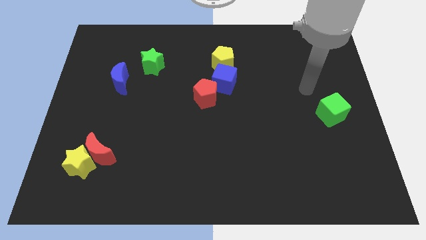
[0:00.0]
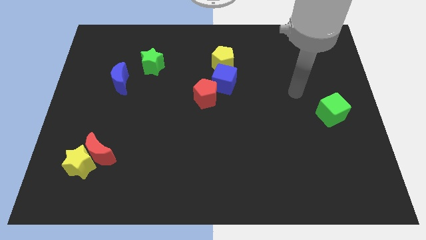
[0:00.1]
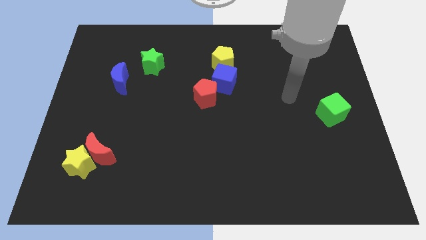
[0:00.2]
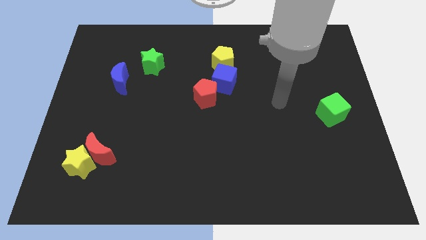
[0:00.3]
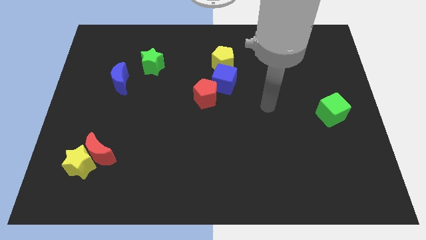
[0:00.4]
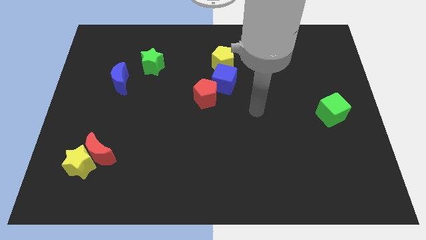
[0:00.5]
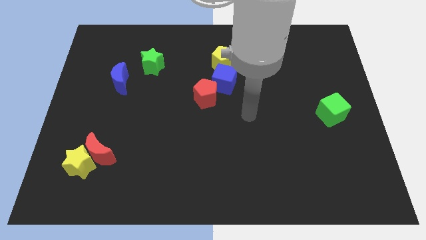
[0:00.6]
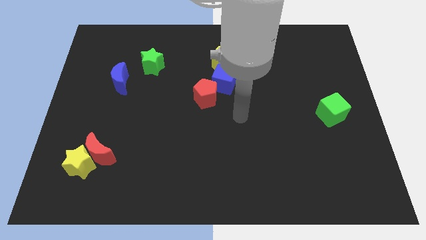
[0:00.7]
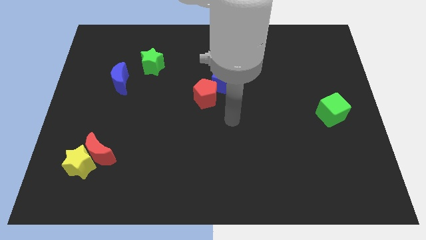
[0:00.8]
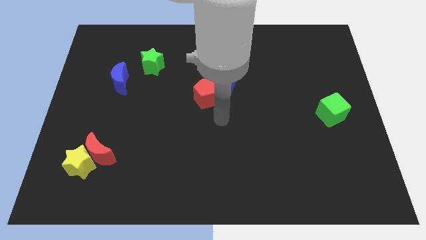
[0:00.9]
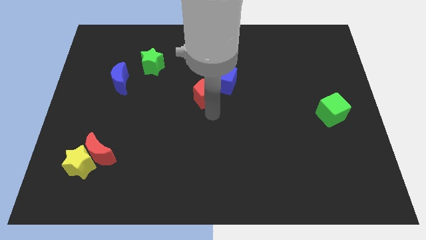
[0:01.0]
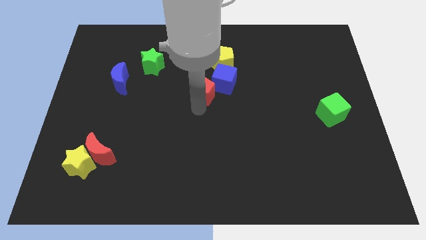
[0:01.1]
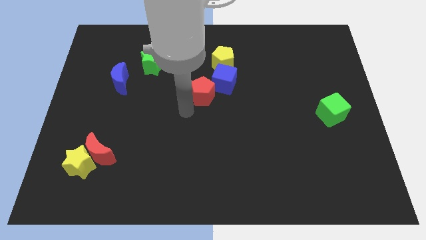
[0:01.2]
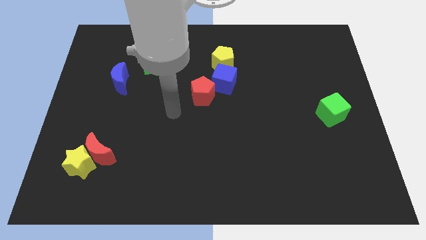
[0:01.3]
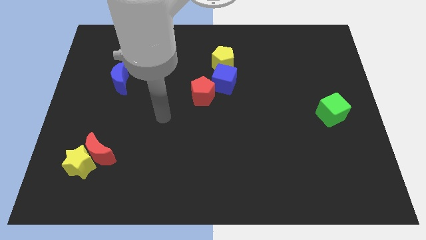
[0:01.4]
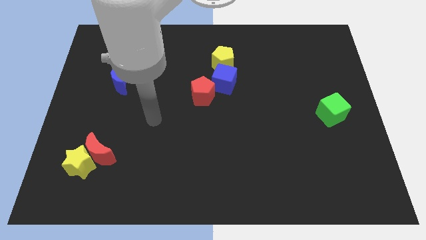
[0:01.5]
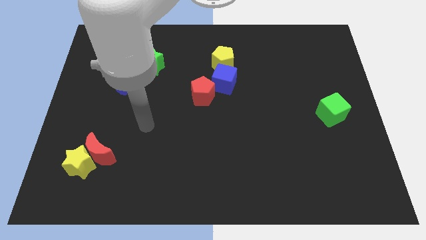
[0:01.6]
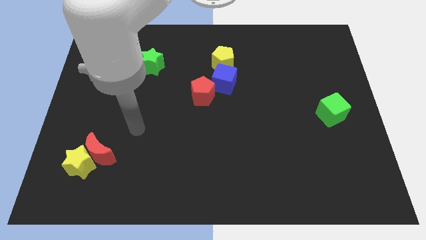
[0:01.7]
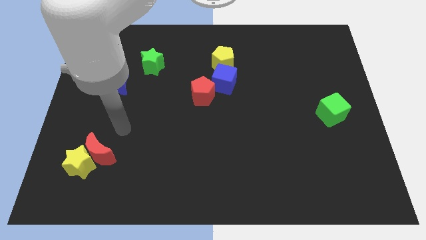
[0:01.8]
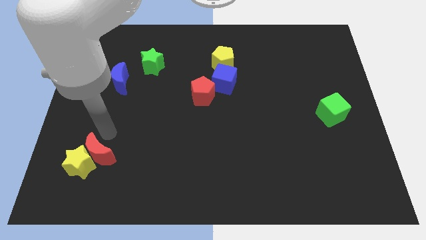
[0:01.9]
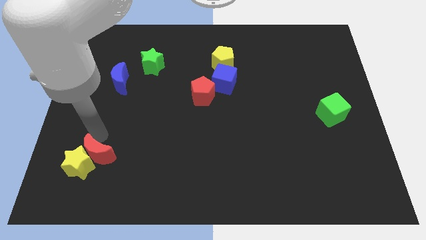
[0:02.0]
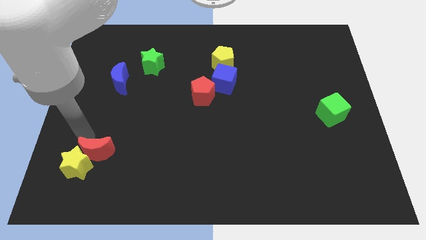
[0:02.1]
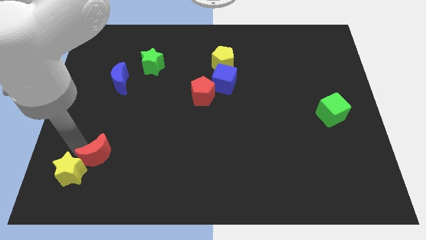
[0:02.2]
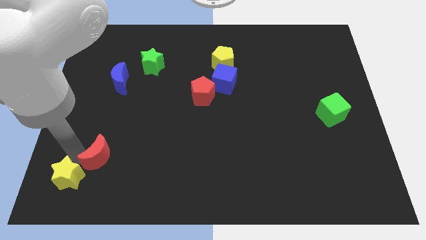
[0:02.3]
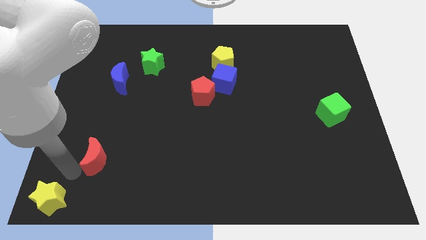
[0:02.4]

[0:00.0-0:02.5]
separate the red moon from the yellow star

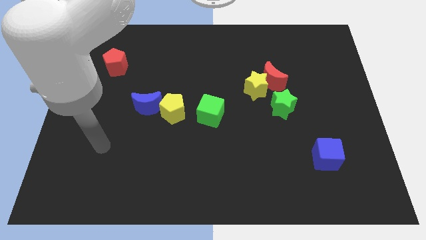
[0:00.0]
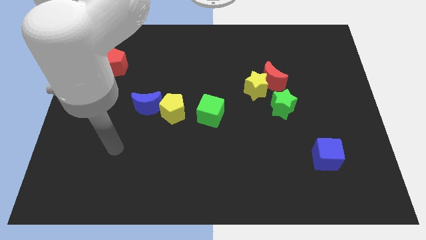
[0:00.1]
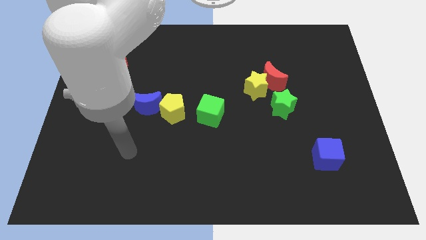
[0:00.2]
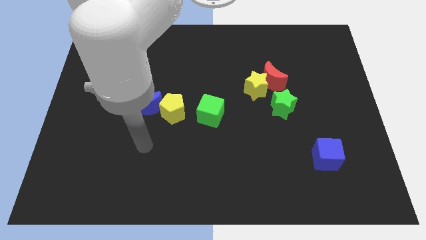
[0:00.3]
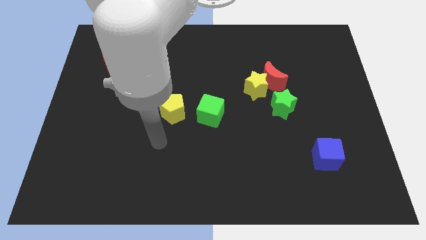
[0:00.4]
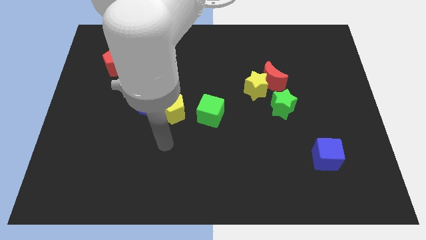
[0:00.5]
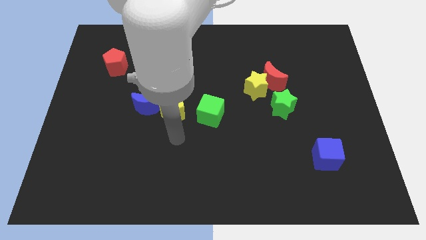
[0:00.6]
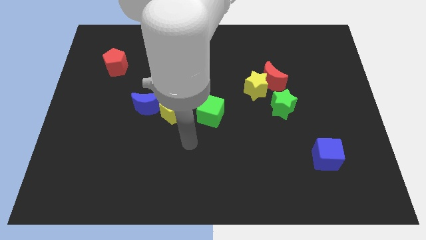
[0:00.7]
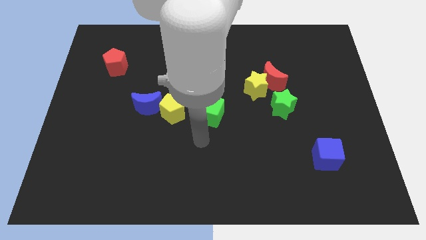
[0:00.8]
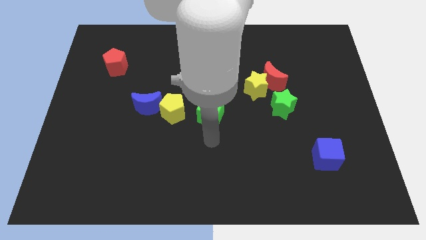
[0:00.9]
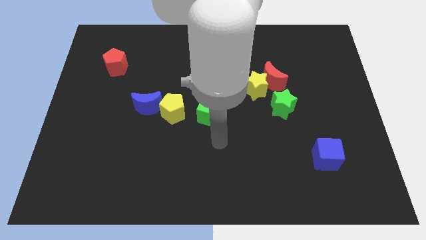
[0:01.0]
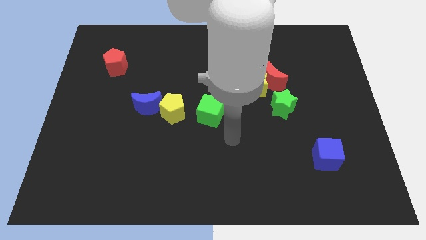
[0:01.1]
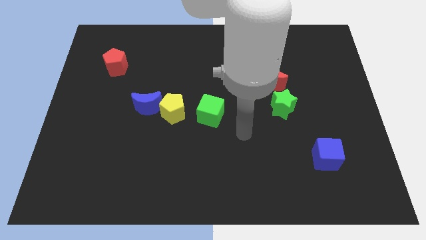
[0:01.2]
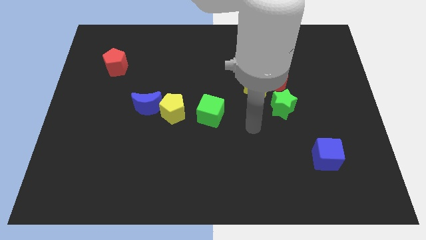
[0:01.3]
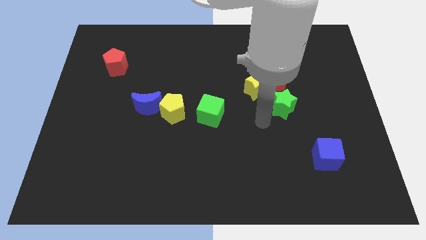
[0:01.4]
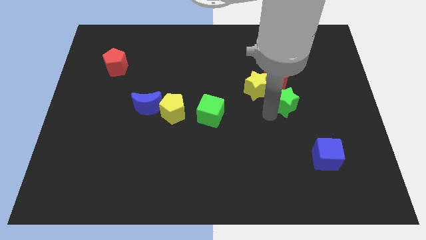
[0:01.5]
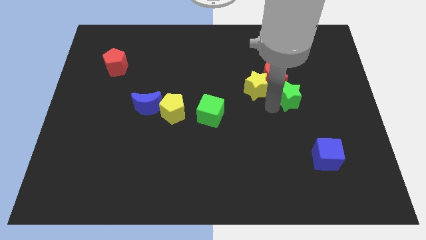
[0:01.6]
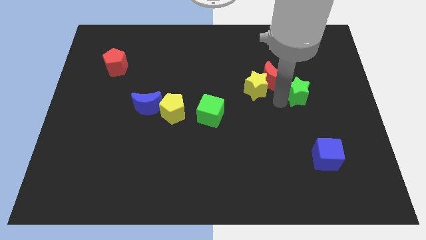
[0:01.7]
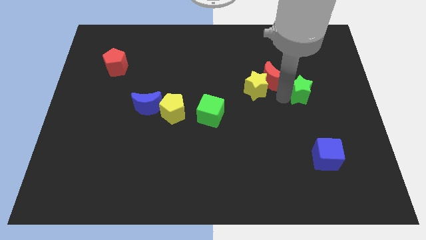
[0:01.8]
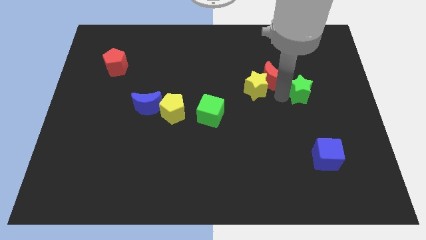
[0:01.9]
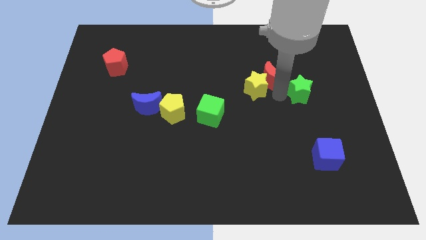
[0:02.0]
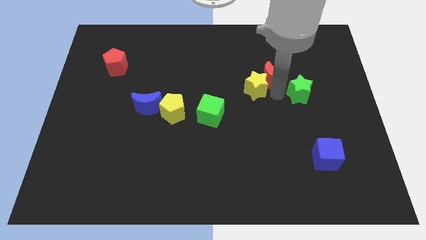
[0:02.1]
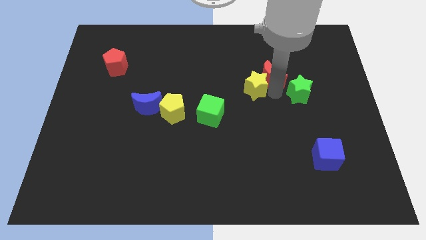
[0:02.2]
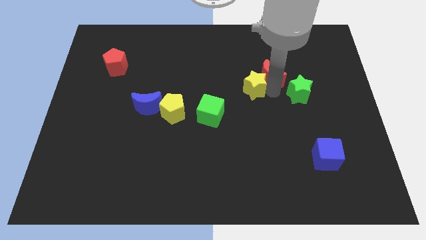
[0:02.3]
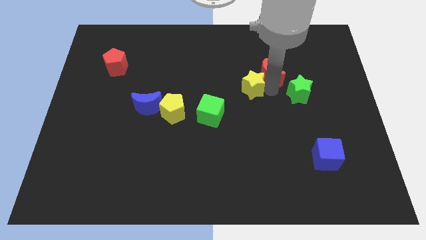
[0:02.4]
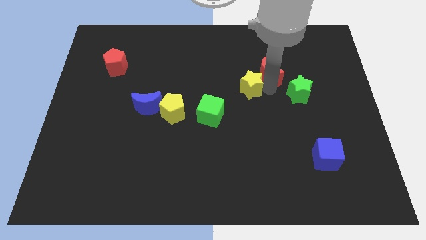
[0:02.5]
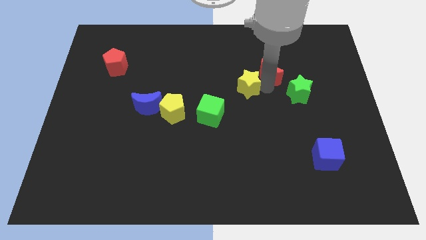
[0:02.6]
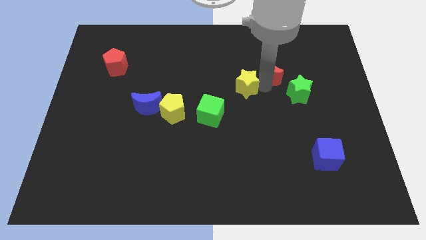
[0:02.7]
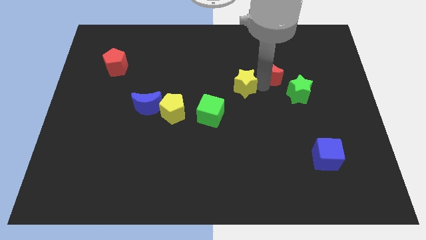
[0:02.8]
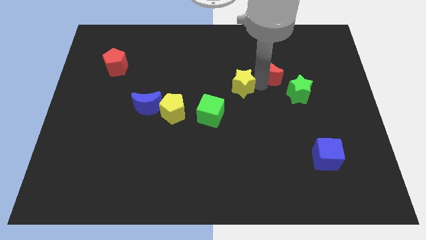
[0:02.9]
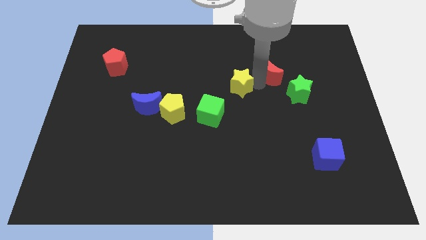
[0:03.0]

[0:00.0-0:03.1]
move the yellow star away from the red moon and green star

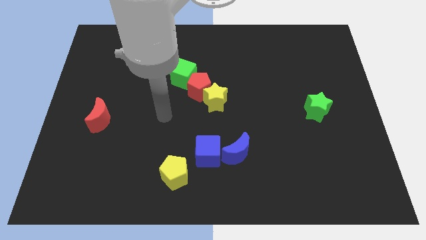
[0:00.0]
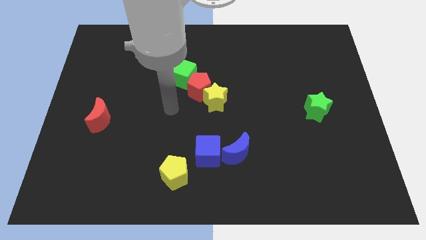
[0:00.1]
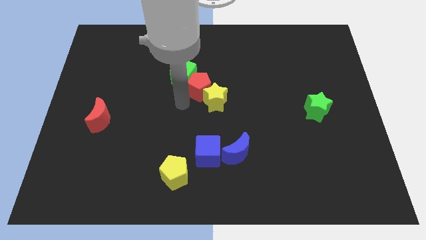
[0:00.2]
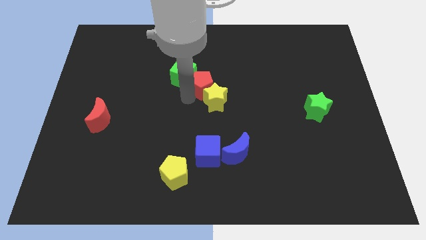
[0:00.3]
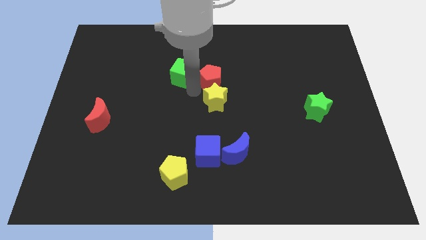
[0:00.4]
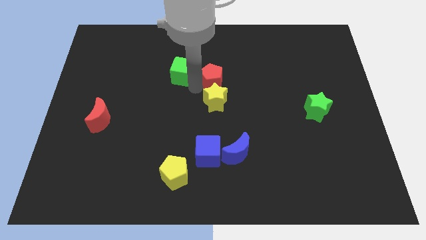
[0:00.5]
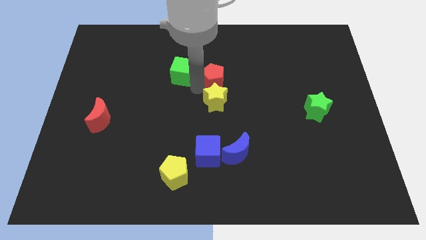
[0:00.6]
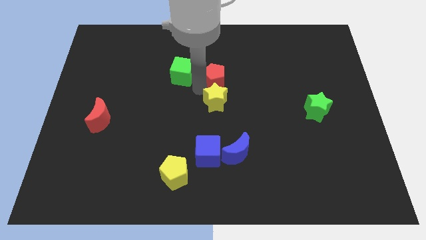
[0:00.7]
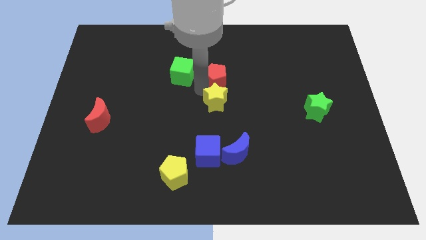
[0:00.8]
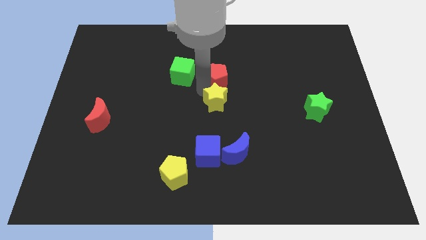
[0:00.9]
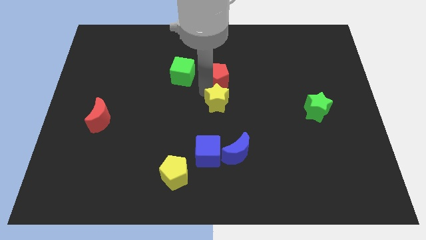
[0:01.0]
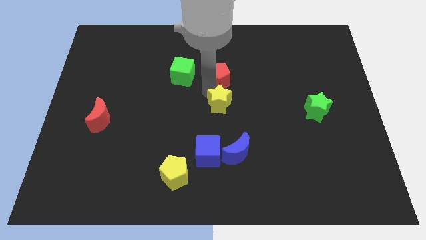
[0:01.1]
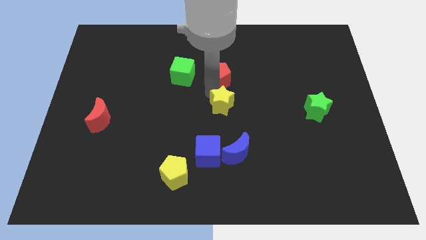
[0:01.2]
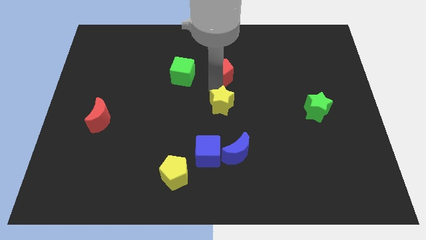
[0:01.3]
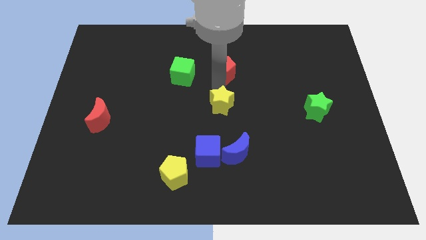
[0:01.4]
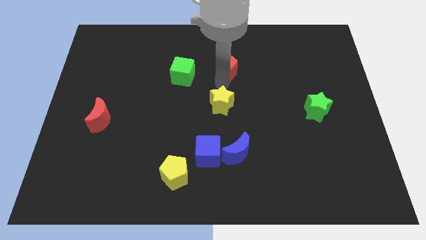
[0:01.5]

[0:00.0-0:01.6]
pull the yellow star apart from the red pentagon

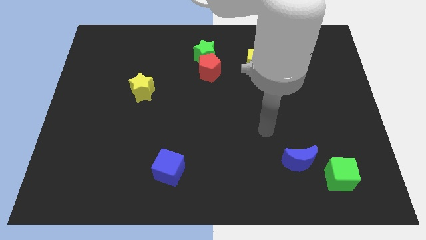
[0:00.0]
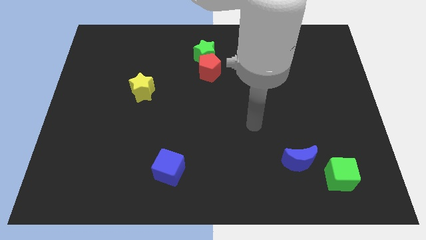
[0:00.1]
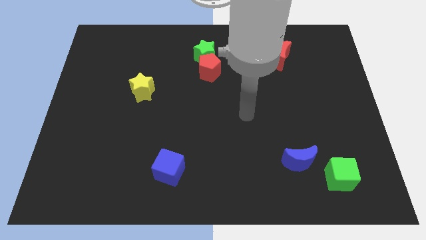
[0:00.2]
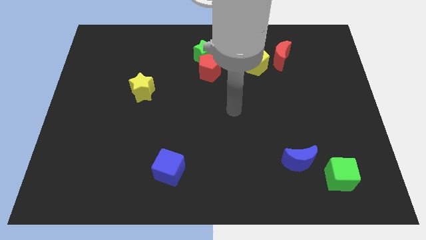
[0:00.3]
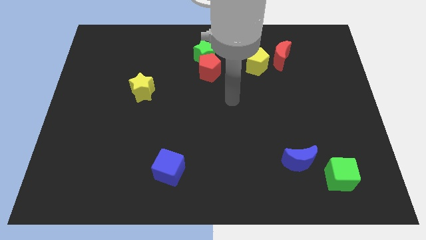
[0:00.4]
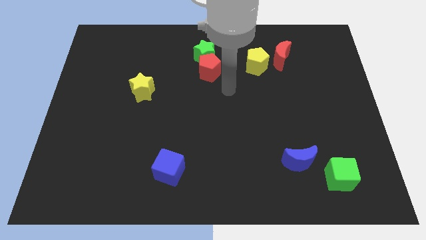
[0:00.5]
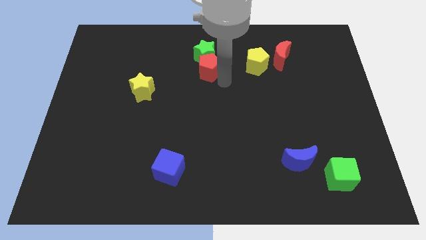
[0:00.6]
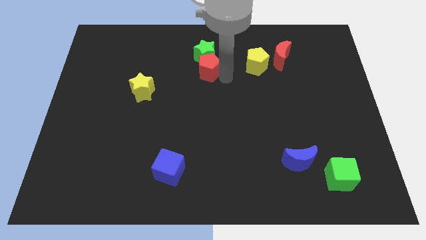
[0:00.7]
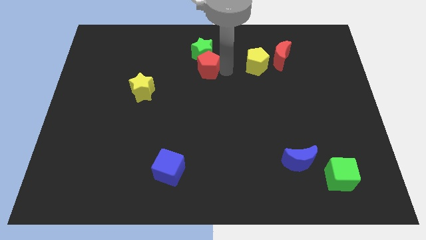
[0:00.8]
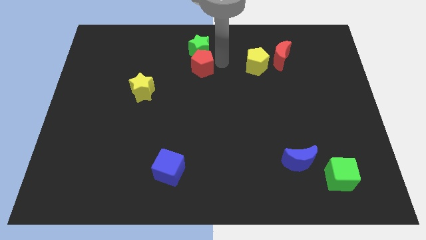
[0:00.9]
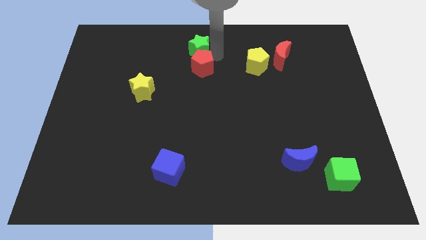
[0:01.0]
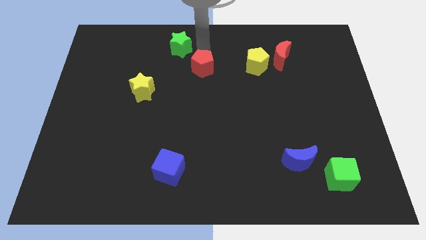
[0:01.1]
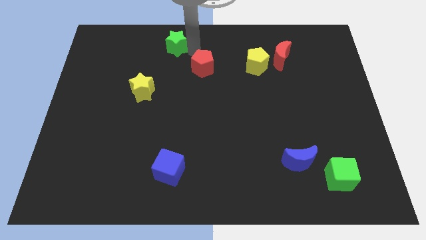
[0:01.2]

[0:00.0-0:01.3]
separate the red pentagon from the green star

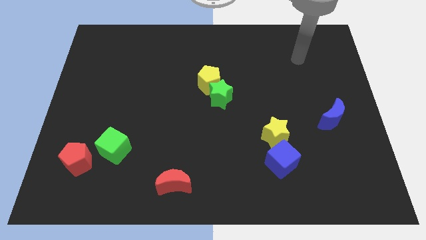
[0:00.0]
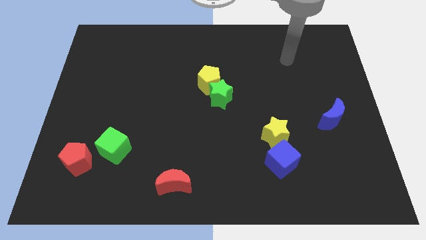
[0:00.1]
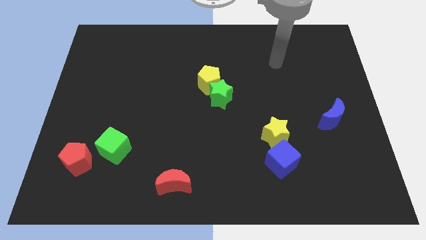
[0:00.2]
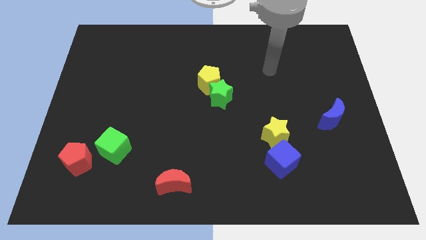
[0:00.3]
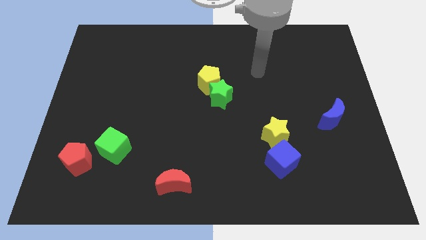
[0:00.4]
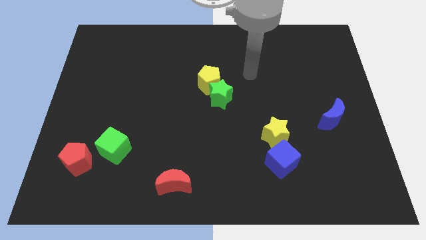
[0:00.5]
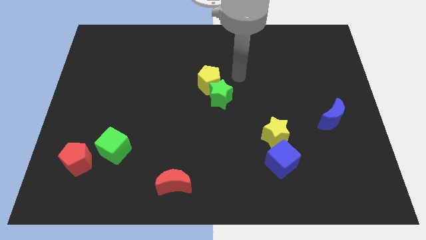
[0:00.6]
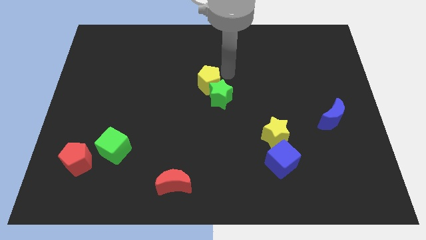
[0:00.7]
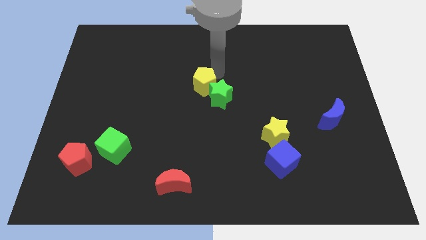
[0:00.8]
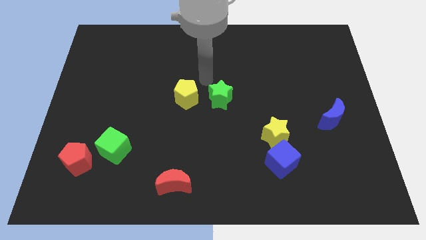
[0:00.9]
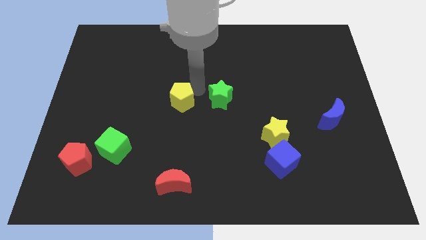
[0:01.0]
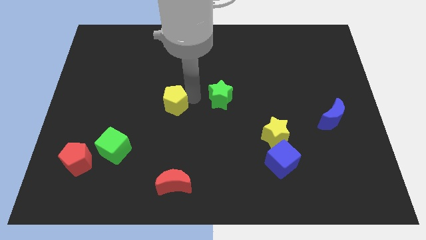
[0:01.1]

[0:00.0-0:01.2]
move the green star away from the yellow pentagon
